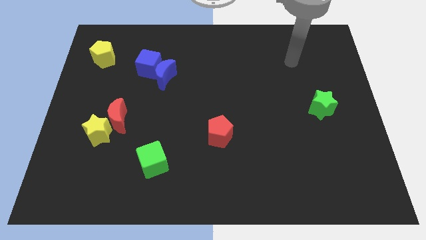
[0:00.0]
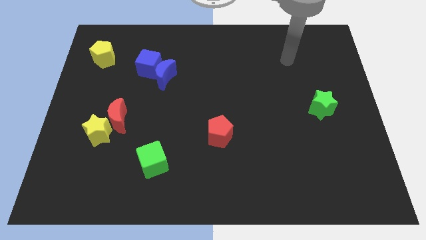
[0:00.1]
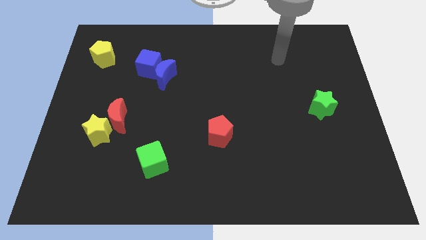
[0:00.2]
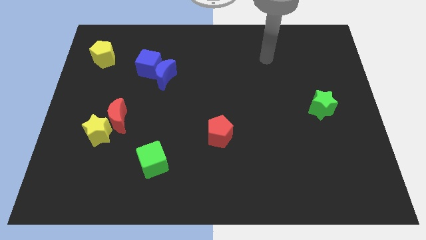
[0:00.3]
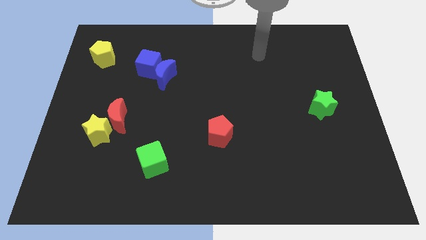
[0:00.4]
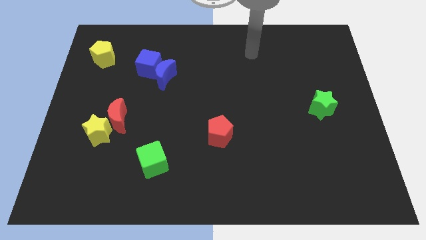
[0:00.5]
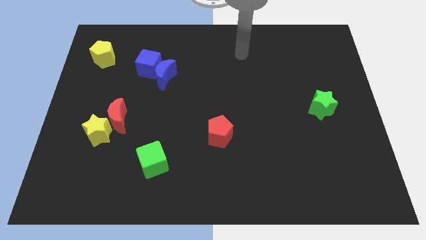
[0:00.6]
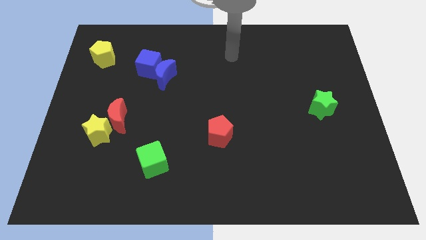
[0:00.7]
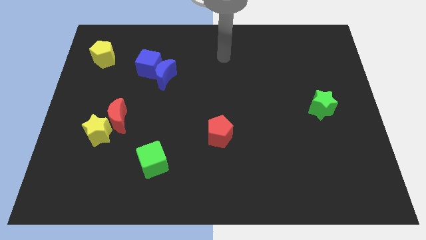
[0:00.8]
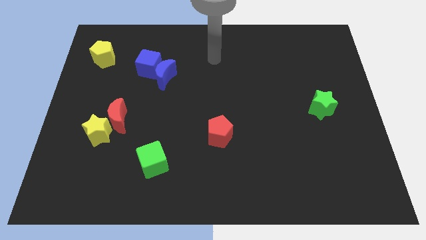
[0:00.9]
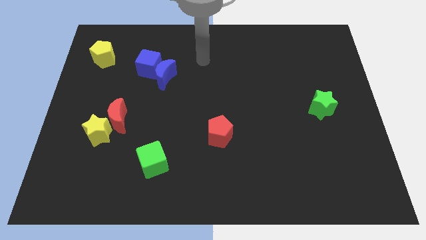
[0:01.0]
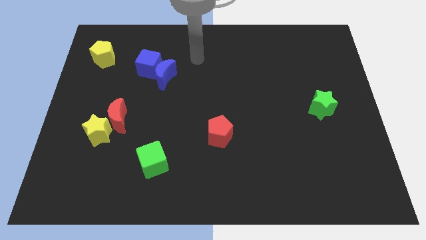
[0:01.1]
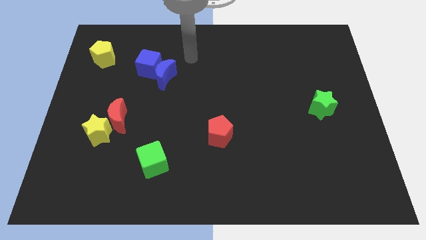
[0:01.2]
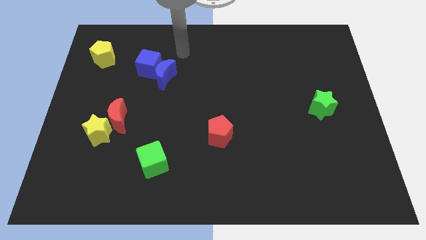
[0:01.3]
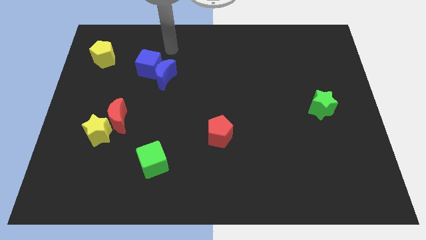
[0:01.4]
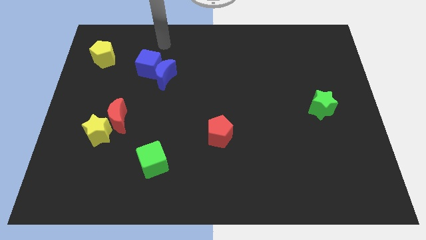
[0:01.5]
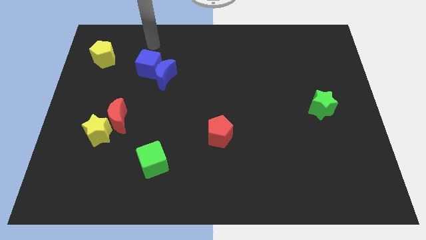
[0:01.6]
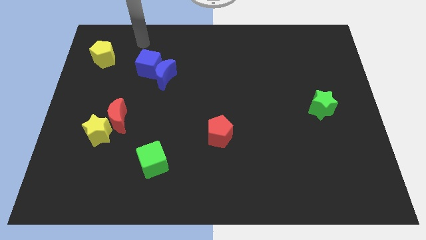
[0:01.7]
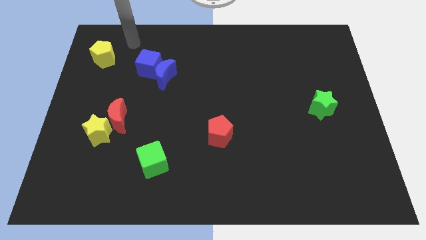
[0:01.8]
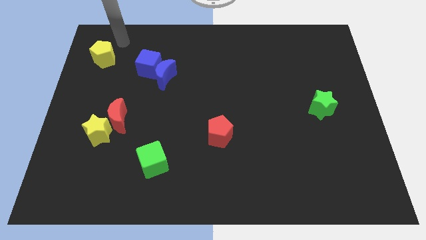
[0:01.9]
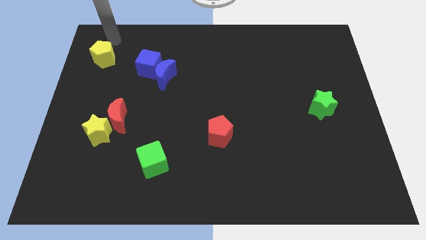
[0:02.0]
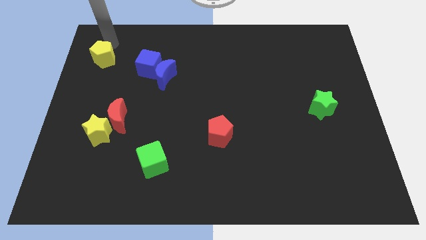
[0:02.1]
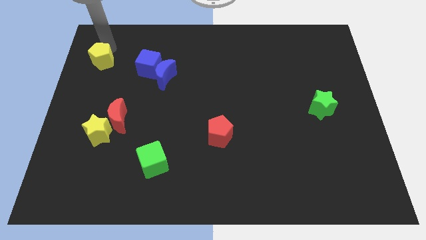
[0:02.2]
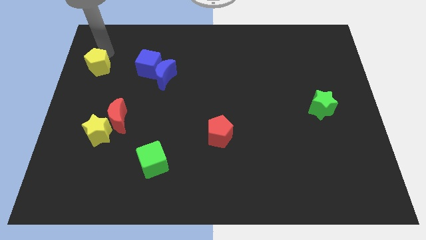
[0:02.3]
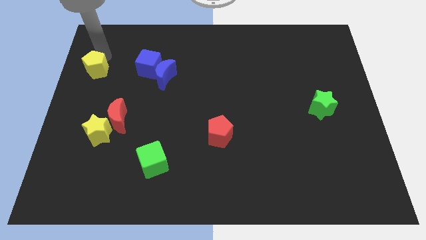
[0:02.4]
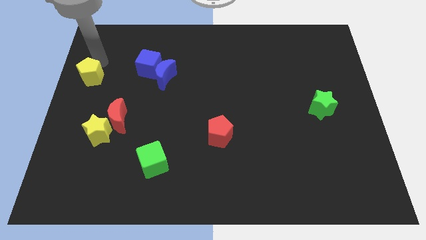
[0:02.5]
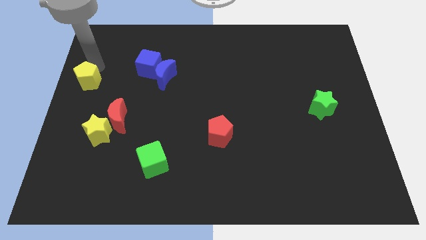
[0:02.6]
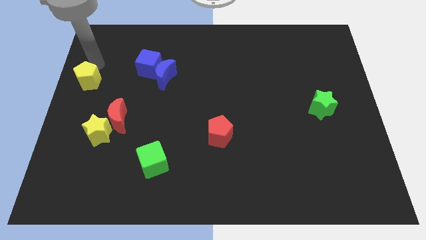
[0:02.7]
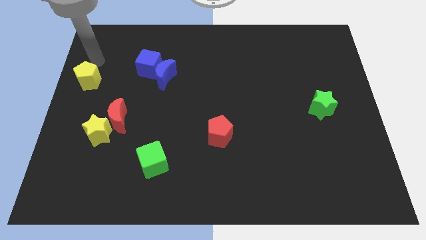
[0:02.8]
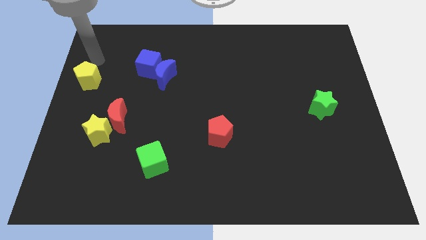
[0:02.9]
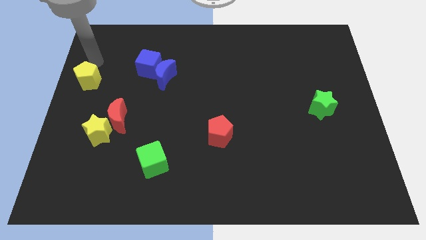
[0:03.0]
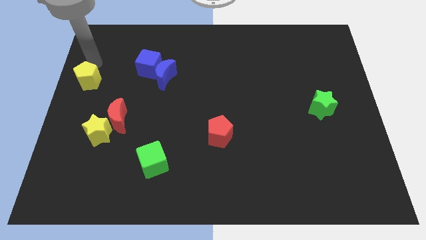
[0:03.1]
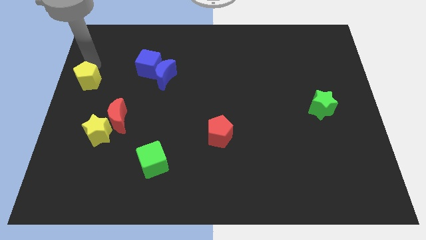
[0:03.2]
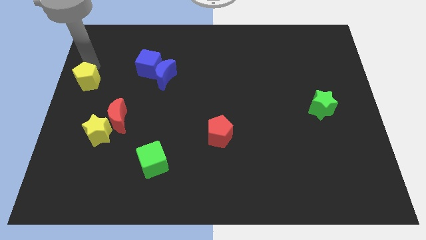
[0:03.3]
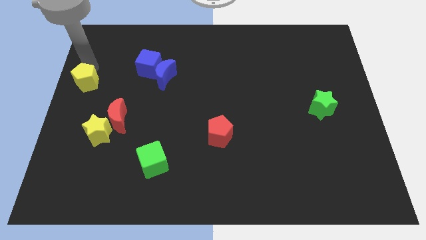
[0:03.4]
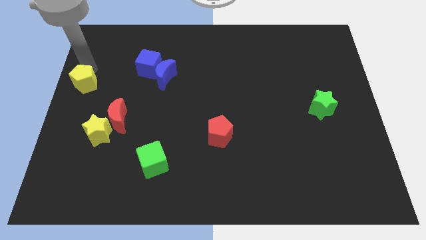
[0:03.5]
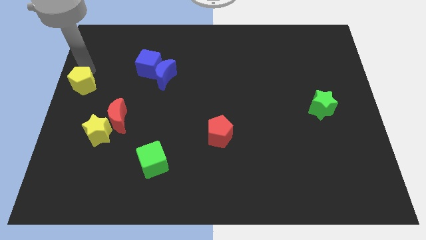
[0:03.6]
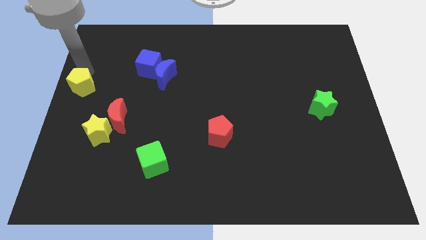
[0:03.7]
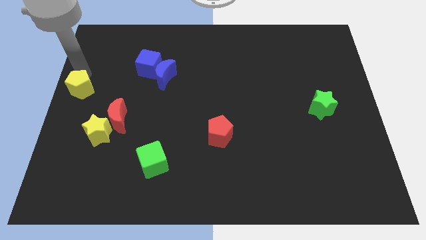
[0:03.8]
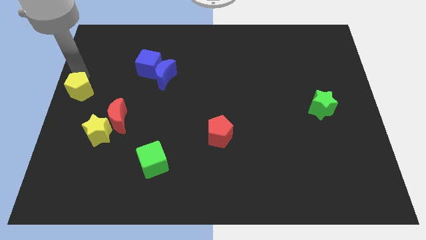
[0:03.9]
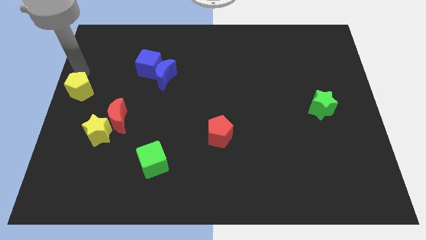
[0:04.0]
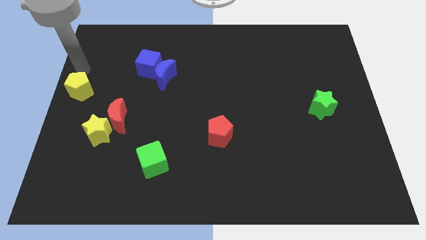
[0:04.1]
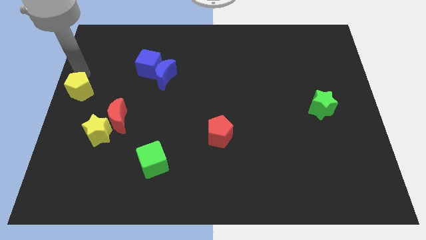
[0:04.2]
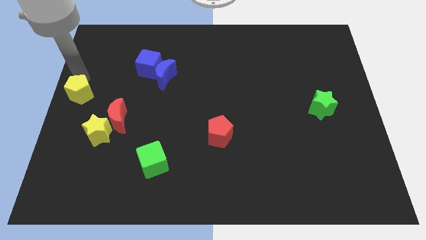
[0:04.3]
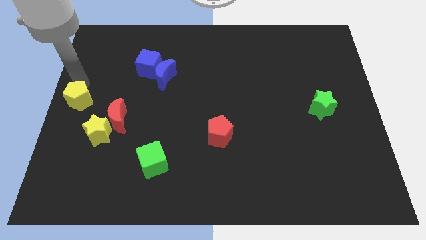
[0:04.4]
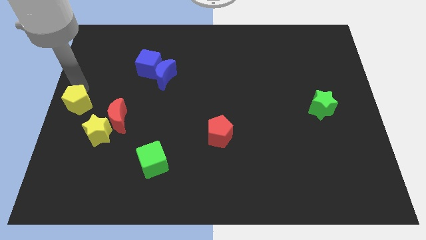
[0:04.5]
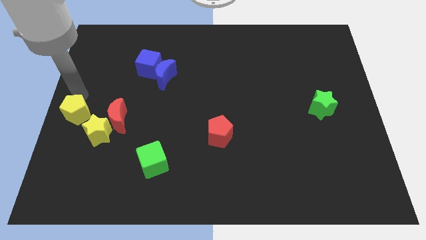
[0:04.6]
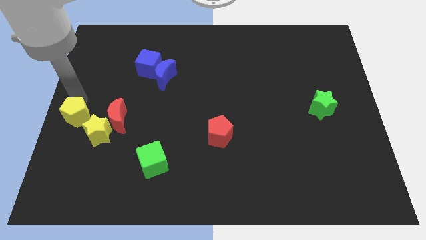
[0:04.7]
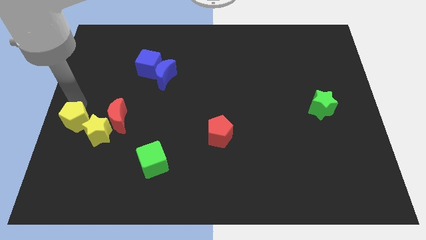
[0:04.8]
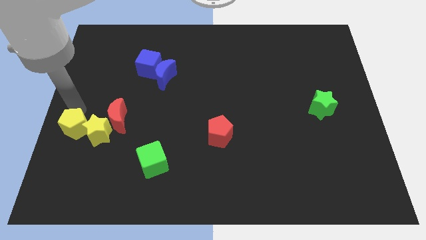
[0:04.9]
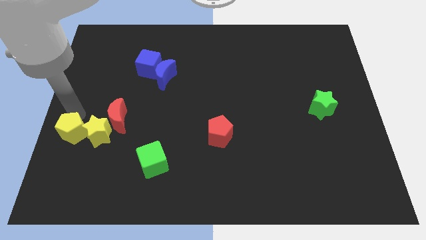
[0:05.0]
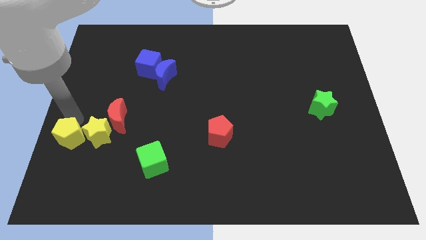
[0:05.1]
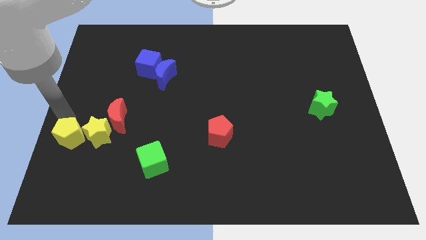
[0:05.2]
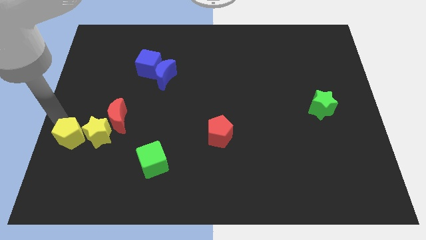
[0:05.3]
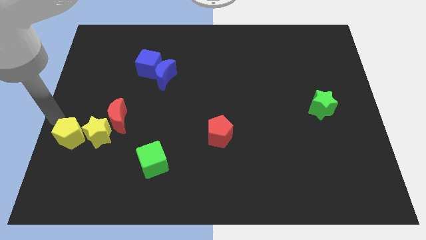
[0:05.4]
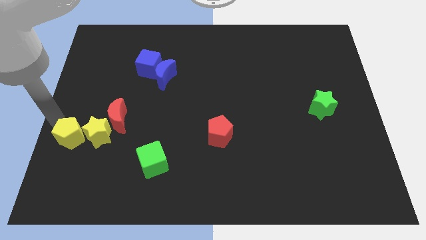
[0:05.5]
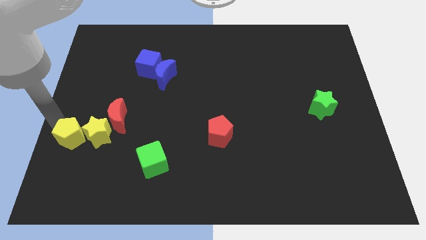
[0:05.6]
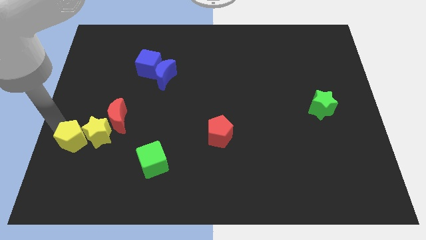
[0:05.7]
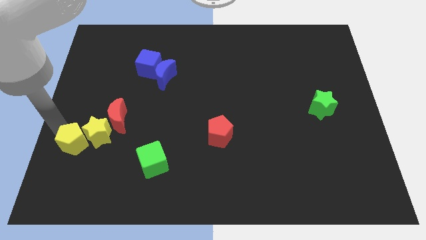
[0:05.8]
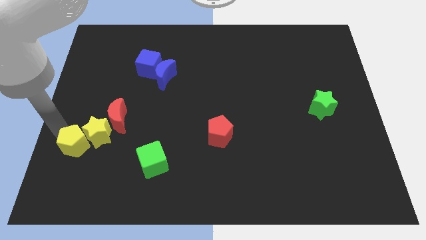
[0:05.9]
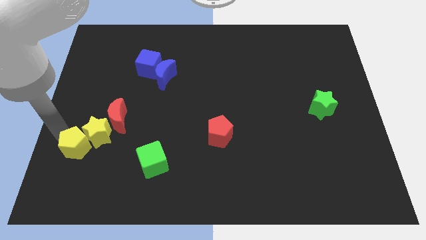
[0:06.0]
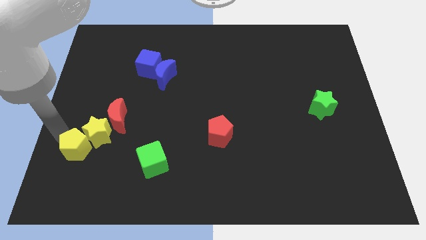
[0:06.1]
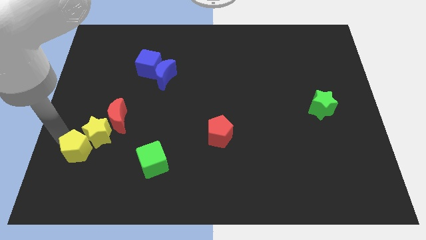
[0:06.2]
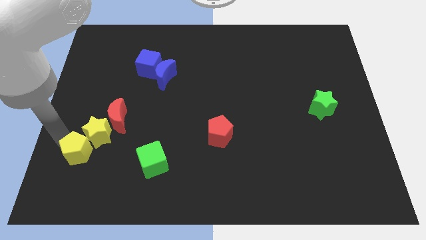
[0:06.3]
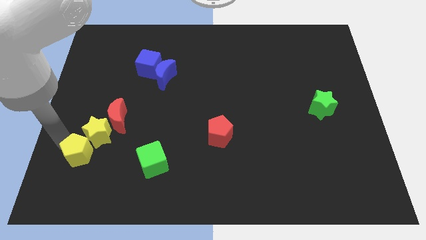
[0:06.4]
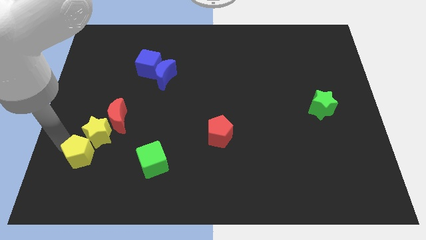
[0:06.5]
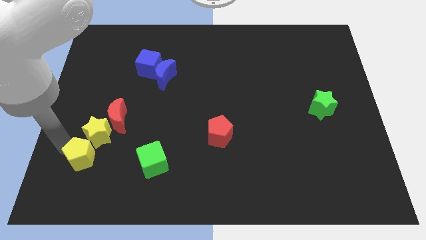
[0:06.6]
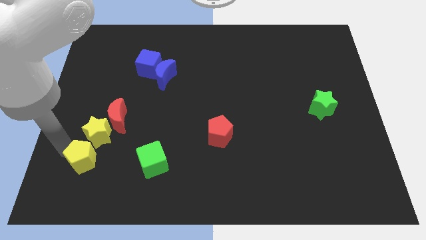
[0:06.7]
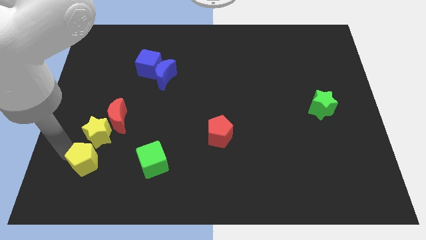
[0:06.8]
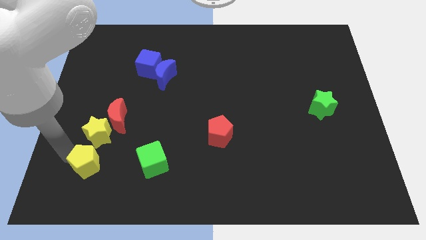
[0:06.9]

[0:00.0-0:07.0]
push the yellow pentagon to the bottom side of the red moon

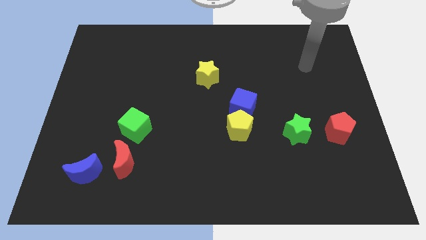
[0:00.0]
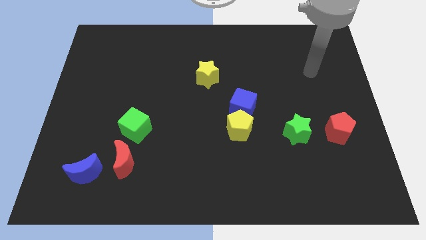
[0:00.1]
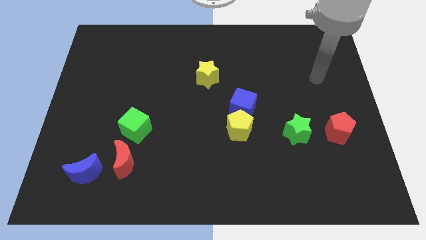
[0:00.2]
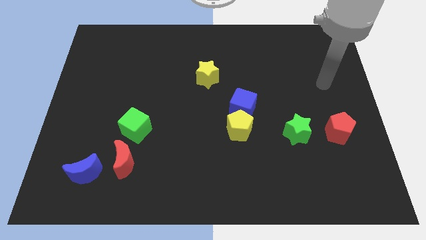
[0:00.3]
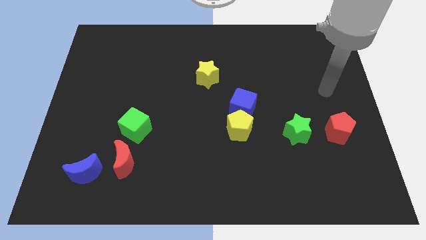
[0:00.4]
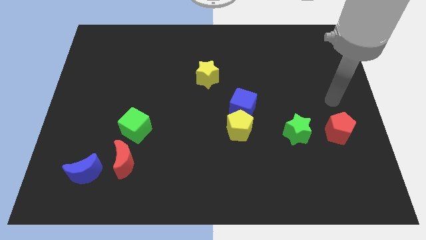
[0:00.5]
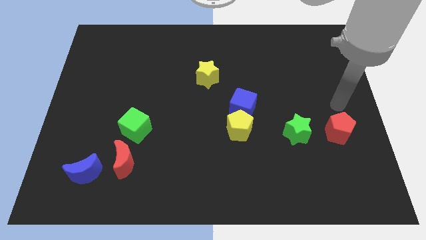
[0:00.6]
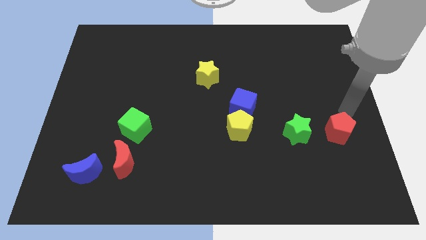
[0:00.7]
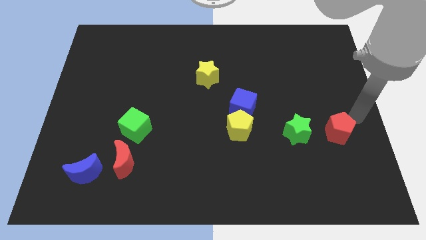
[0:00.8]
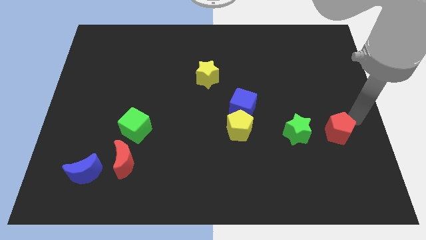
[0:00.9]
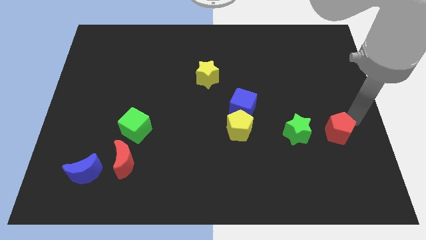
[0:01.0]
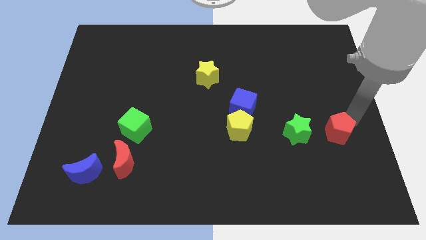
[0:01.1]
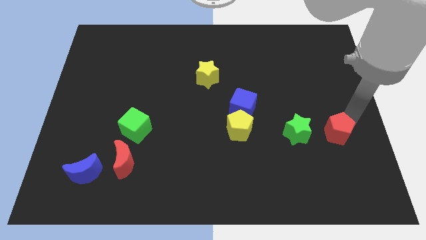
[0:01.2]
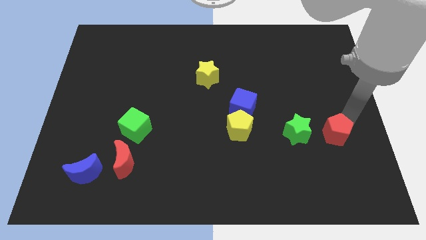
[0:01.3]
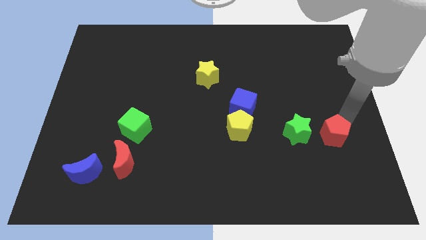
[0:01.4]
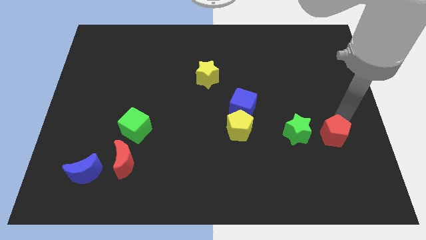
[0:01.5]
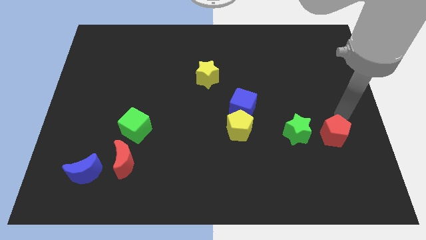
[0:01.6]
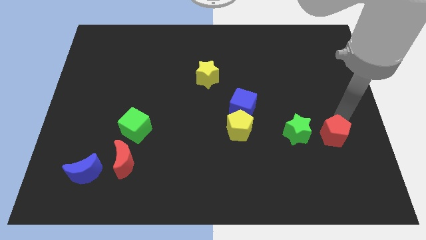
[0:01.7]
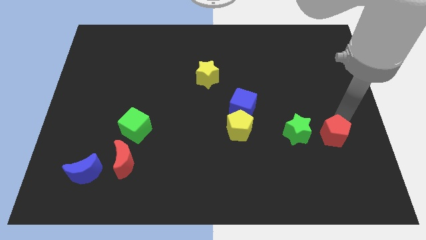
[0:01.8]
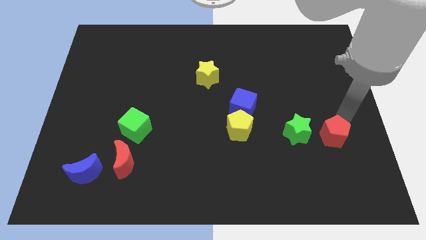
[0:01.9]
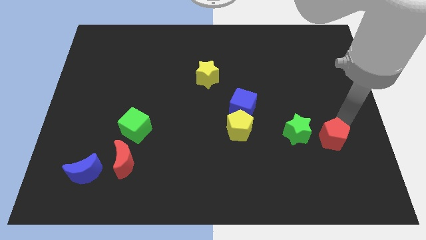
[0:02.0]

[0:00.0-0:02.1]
slide the red pentagon diagonally down and to the right of the green star
